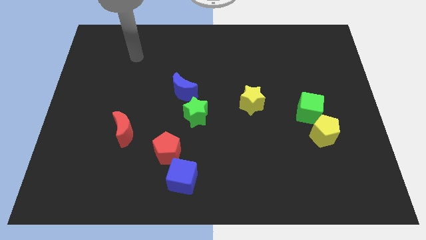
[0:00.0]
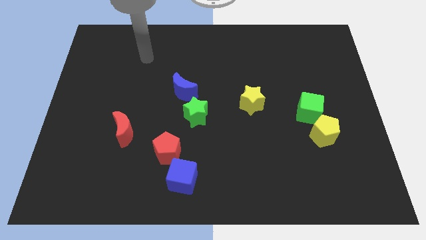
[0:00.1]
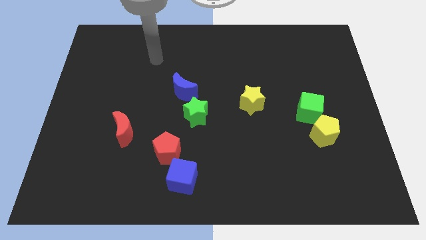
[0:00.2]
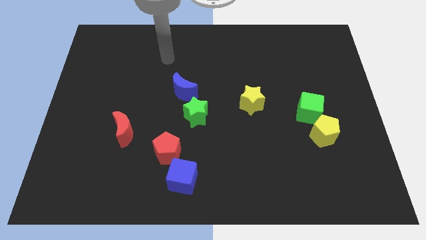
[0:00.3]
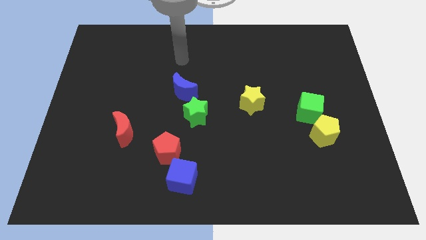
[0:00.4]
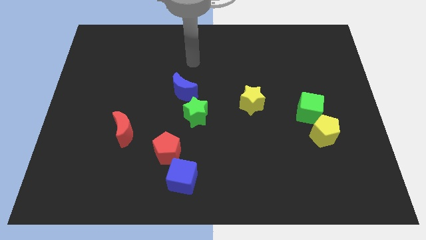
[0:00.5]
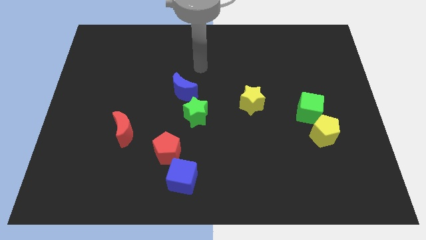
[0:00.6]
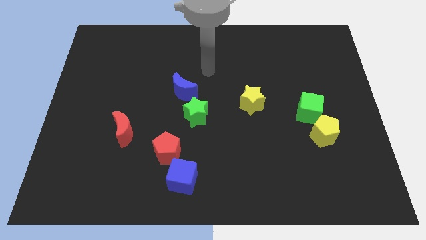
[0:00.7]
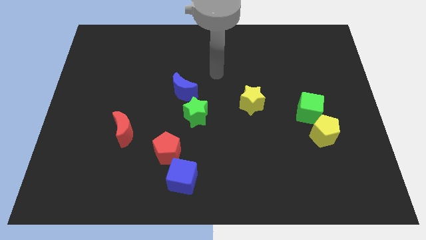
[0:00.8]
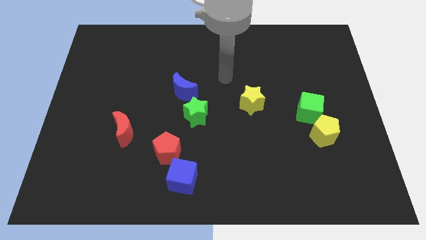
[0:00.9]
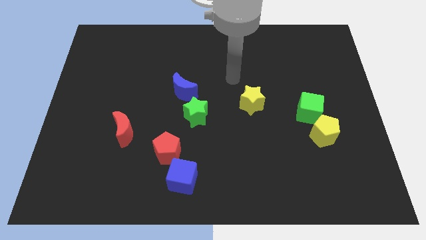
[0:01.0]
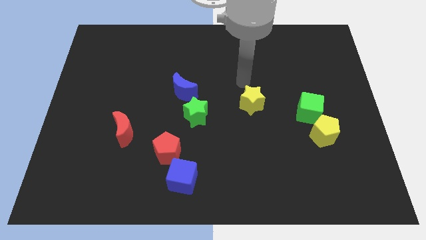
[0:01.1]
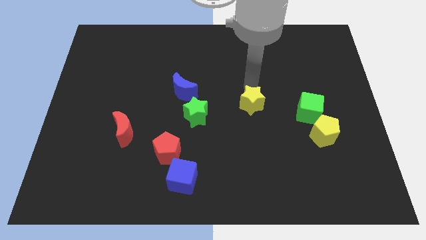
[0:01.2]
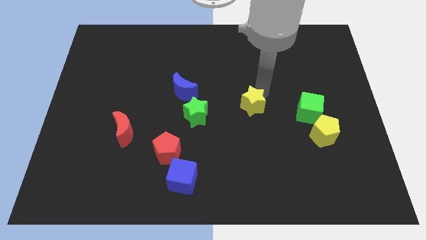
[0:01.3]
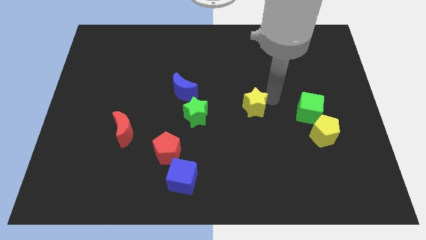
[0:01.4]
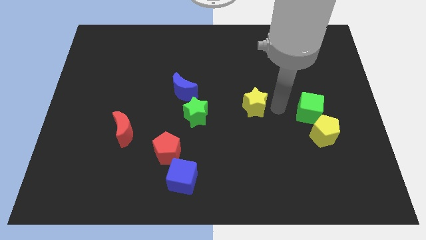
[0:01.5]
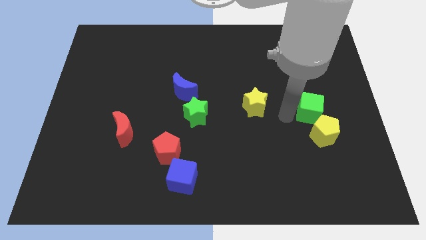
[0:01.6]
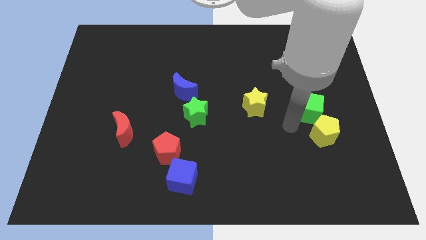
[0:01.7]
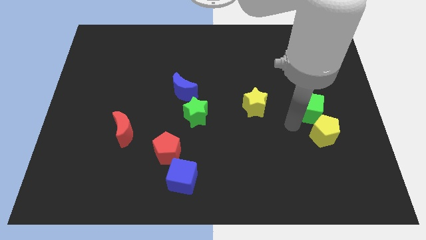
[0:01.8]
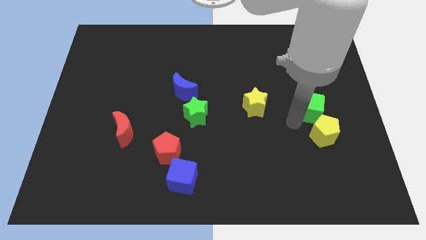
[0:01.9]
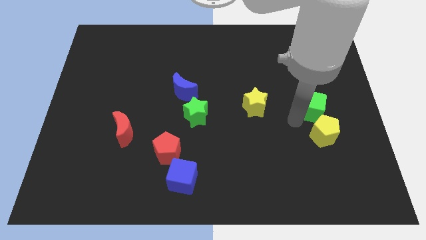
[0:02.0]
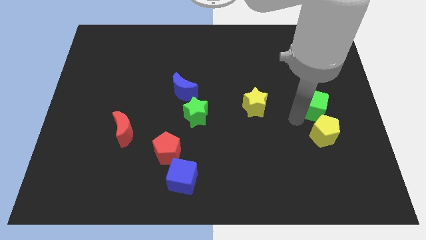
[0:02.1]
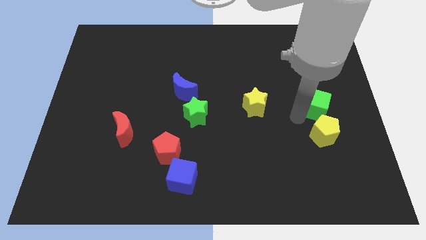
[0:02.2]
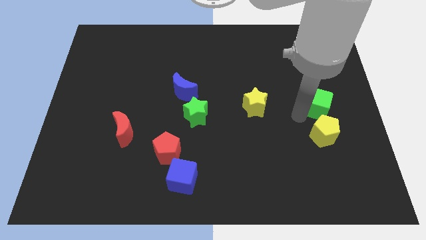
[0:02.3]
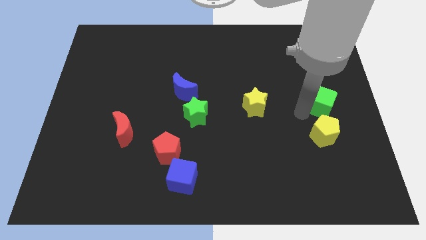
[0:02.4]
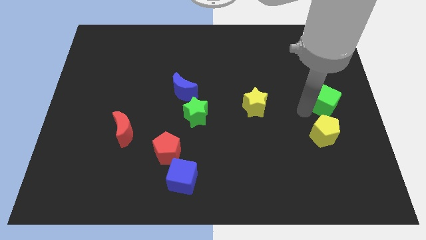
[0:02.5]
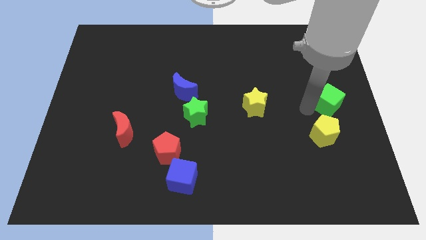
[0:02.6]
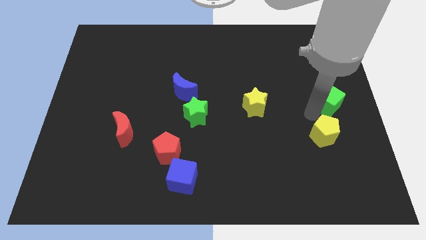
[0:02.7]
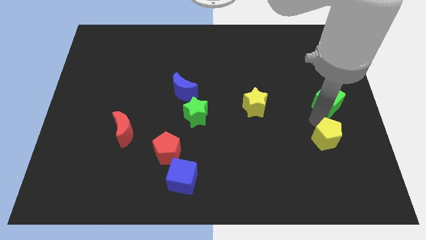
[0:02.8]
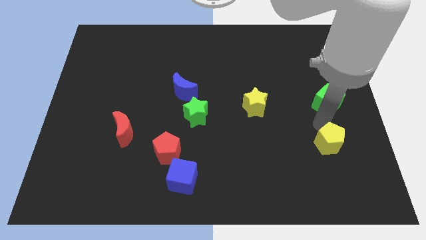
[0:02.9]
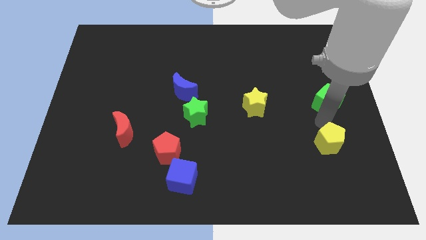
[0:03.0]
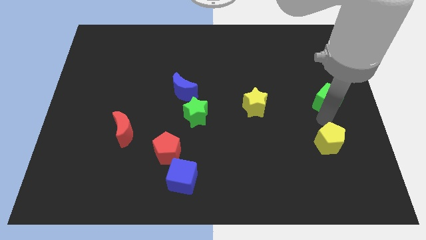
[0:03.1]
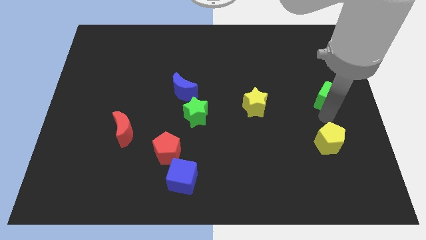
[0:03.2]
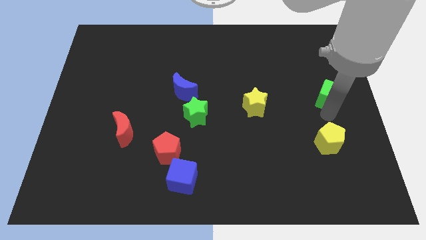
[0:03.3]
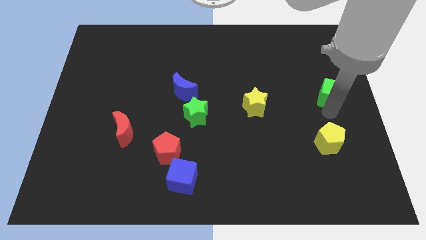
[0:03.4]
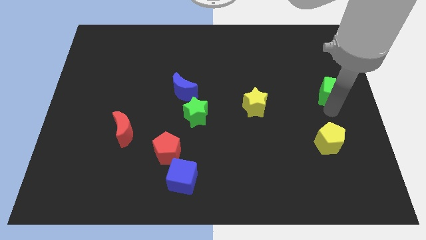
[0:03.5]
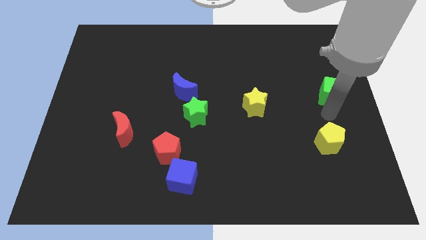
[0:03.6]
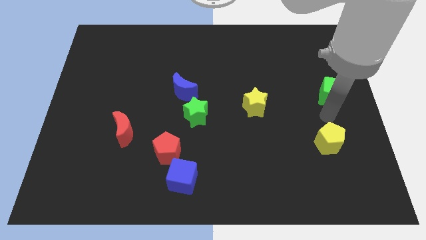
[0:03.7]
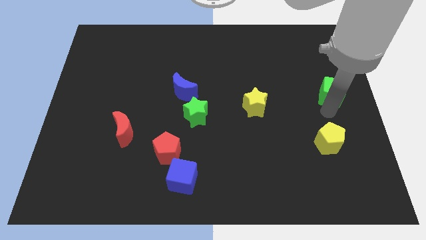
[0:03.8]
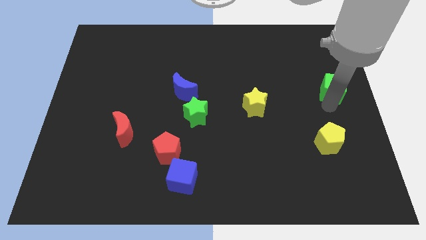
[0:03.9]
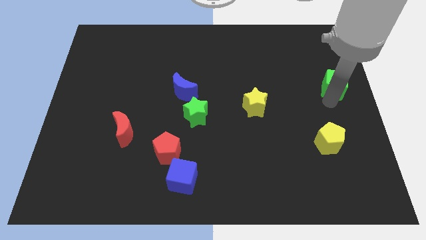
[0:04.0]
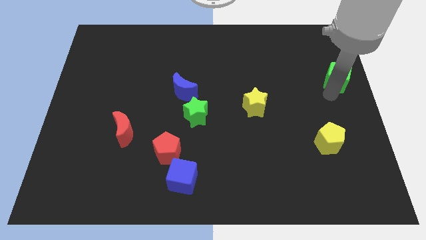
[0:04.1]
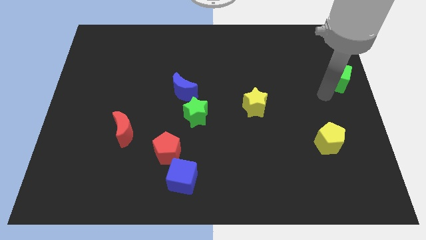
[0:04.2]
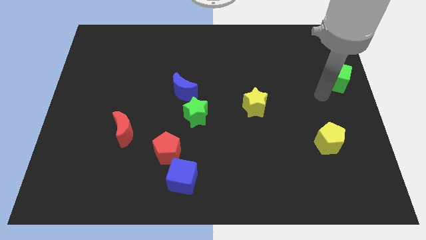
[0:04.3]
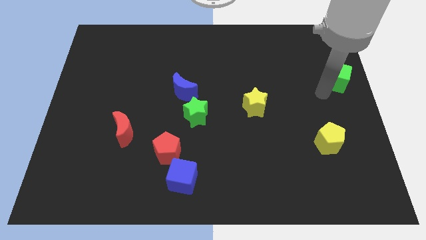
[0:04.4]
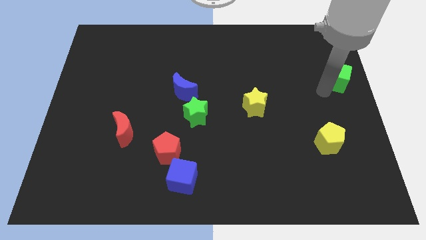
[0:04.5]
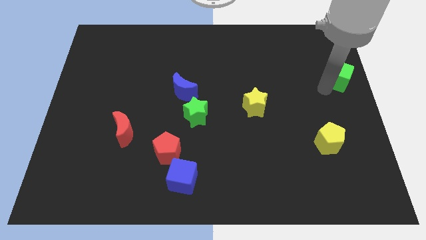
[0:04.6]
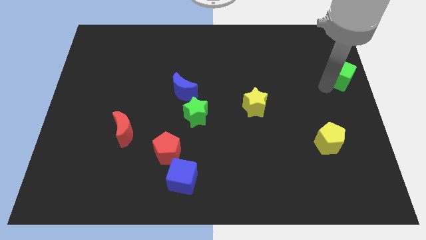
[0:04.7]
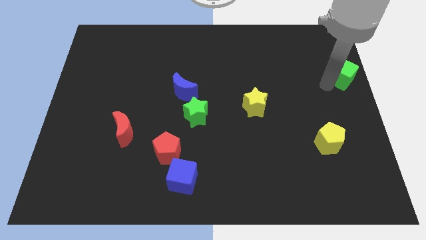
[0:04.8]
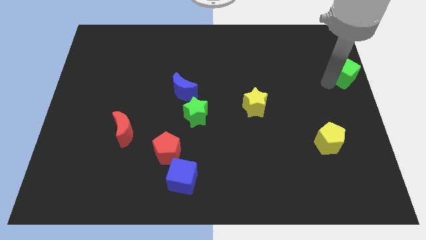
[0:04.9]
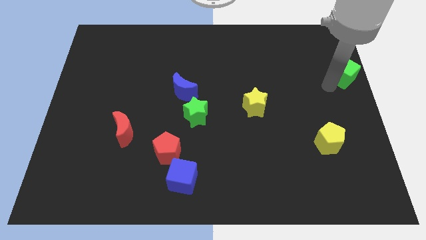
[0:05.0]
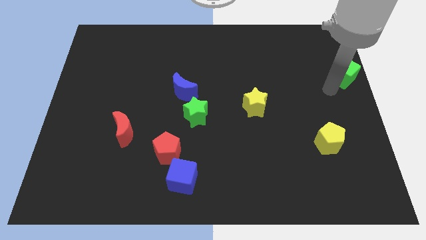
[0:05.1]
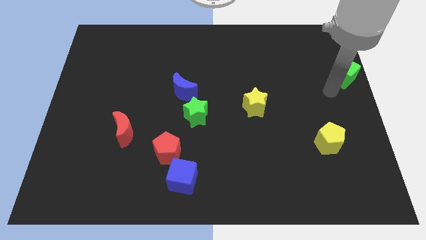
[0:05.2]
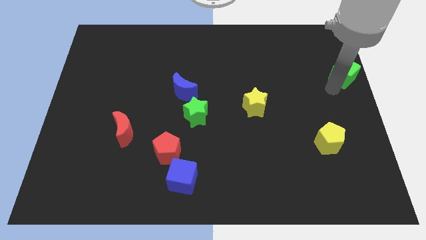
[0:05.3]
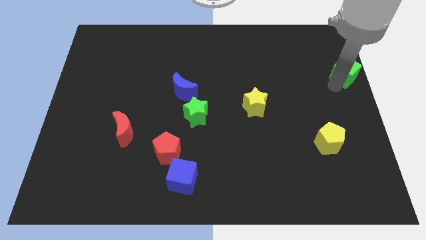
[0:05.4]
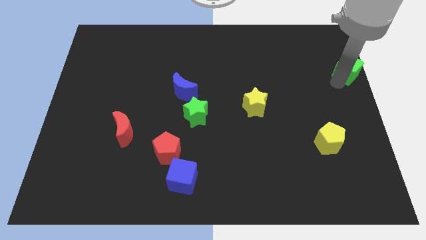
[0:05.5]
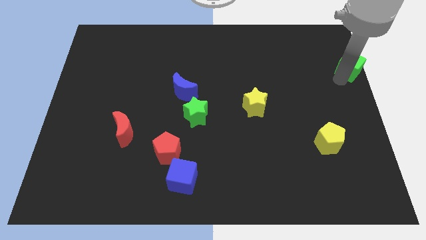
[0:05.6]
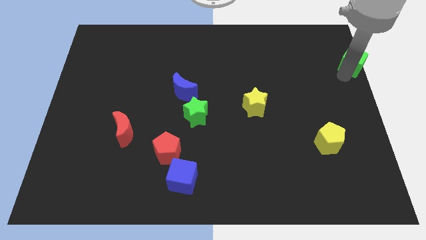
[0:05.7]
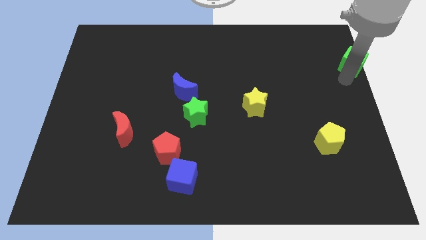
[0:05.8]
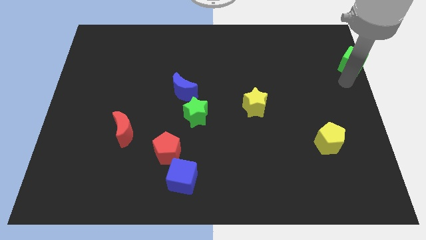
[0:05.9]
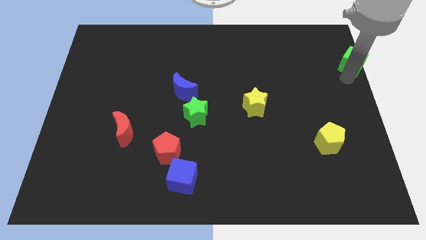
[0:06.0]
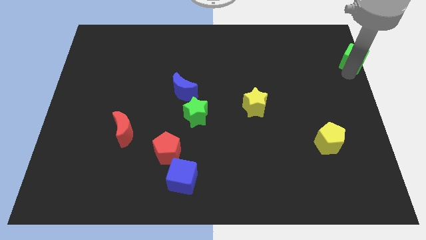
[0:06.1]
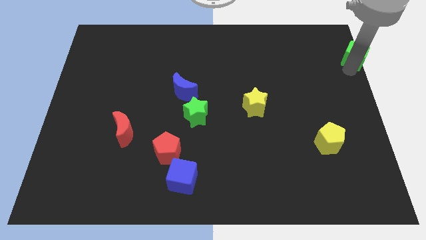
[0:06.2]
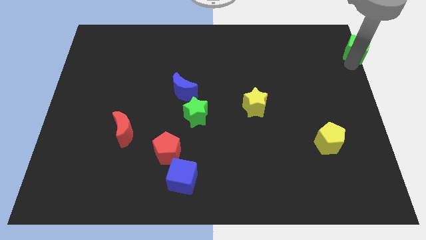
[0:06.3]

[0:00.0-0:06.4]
push the green cube to the upper right corner
